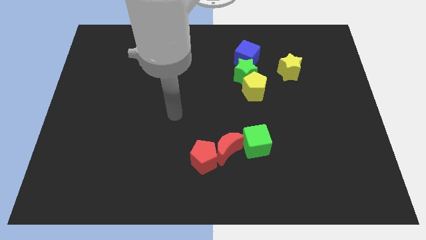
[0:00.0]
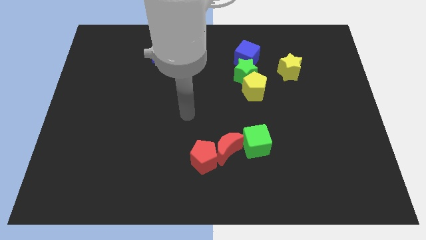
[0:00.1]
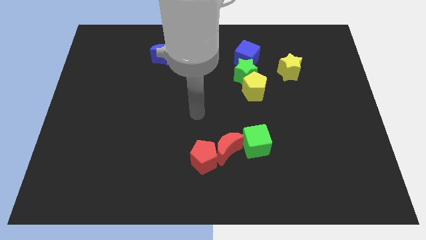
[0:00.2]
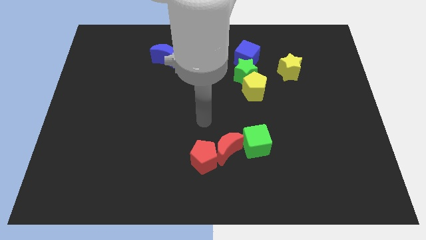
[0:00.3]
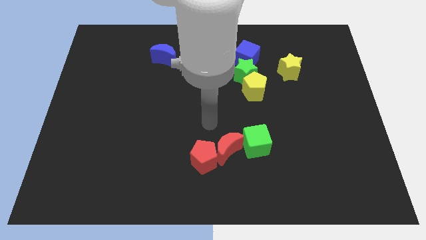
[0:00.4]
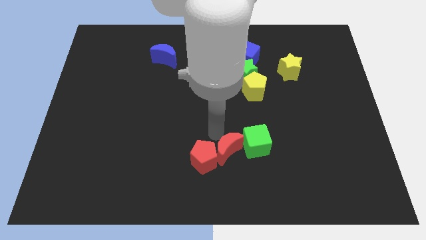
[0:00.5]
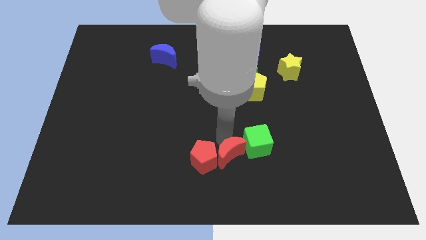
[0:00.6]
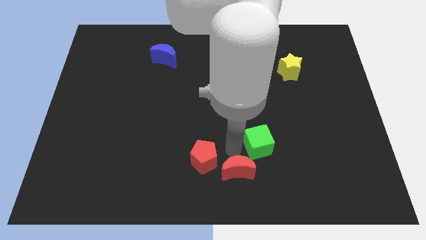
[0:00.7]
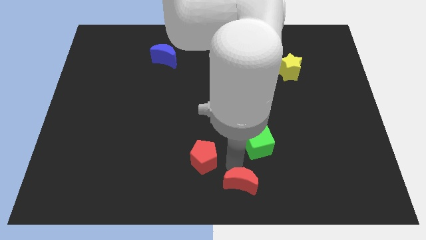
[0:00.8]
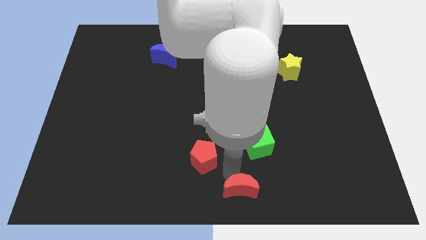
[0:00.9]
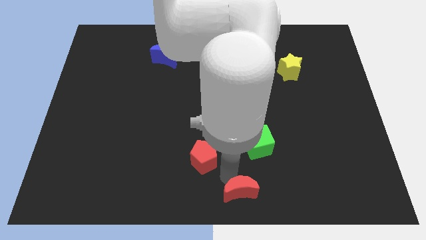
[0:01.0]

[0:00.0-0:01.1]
move the red pentagon away from the red moon

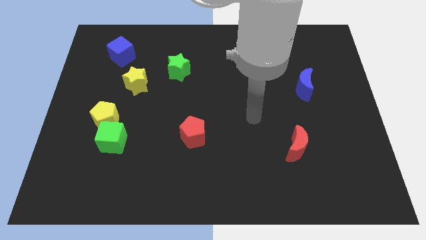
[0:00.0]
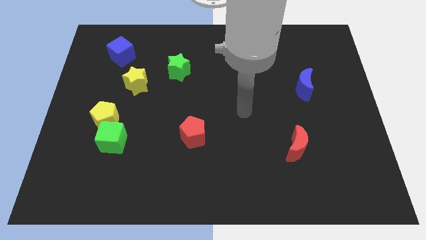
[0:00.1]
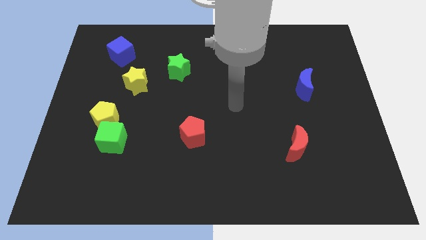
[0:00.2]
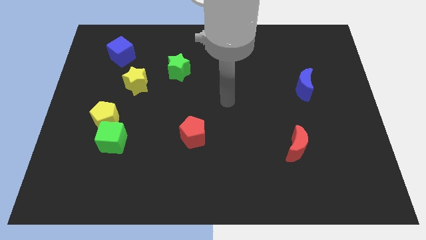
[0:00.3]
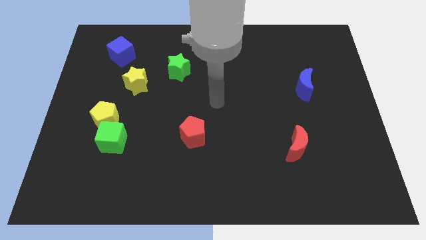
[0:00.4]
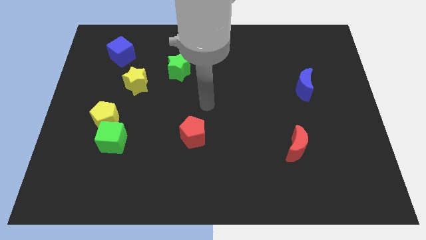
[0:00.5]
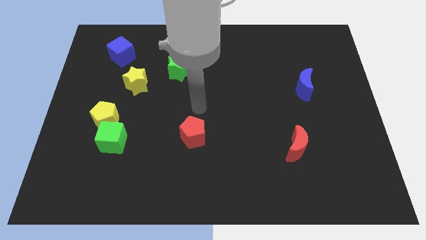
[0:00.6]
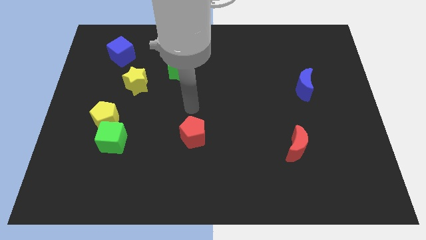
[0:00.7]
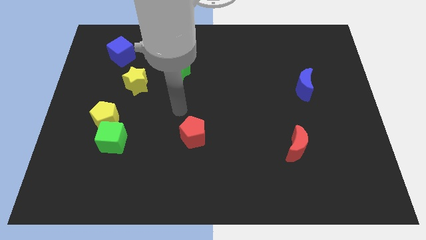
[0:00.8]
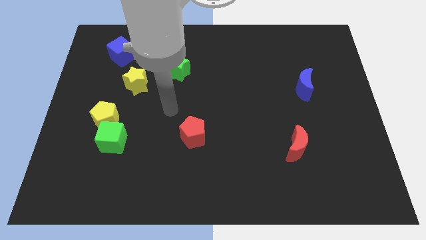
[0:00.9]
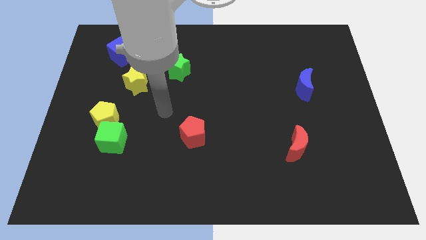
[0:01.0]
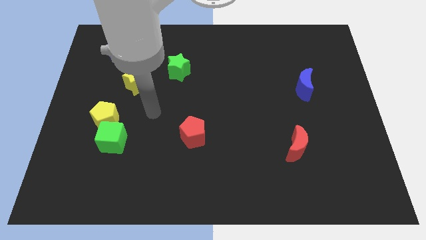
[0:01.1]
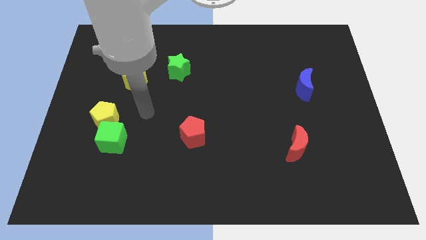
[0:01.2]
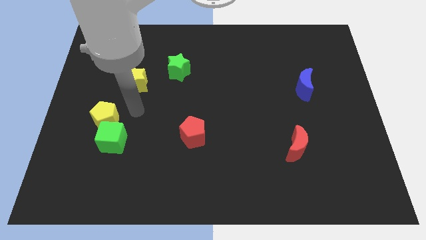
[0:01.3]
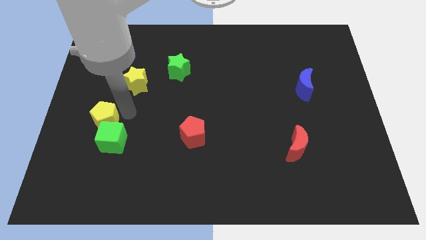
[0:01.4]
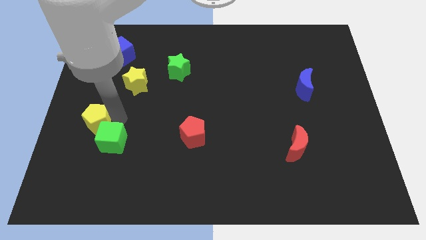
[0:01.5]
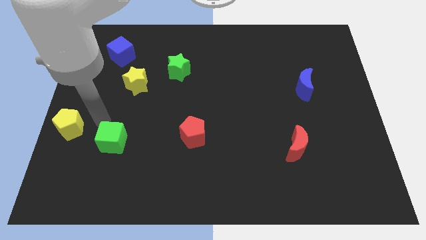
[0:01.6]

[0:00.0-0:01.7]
separate the green cube from the yellow pentagon

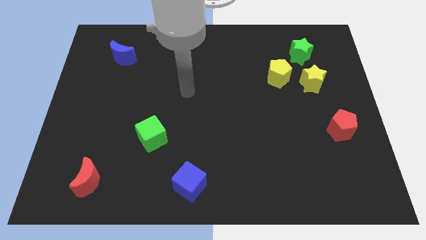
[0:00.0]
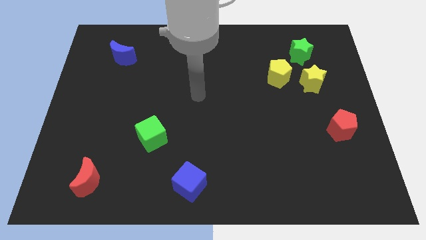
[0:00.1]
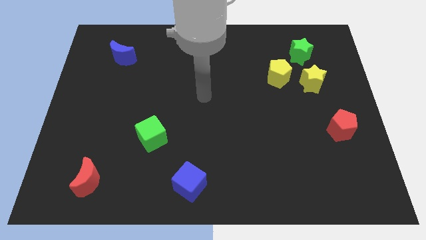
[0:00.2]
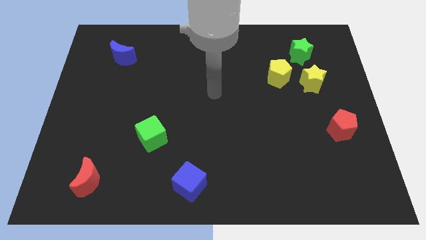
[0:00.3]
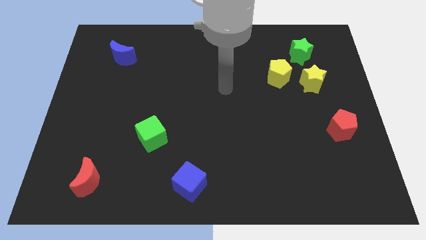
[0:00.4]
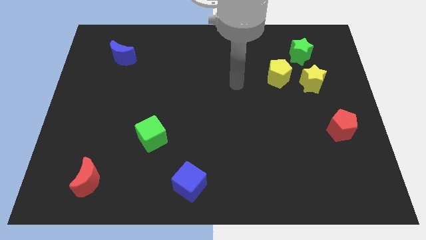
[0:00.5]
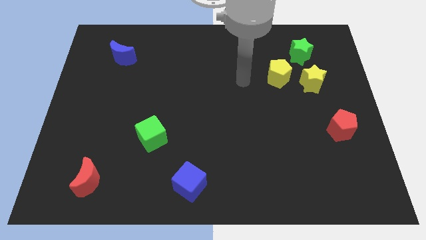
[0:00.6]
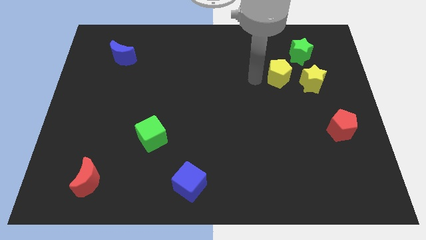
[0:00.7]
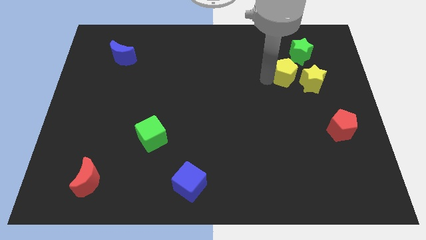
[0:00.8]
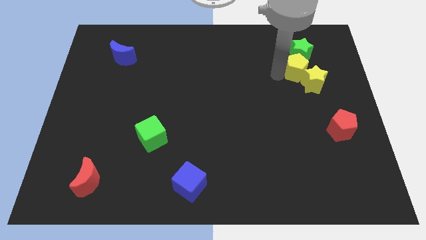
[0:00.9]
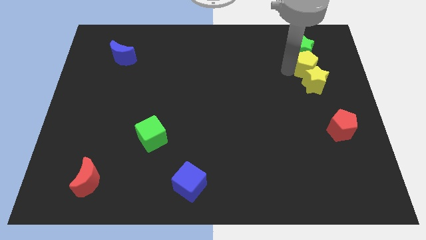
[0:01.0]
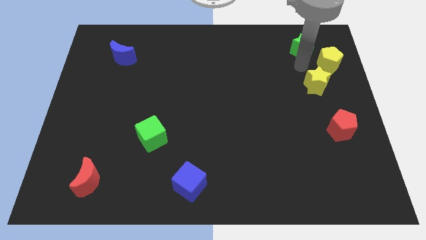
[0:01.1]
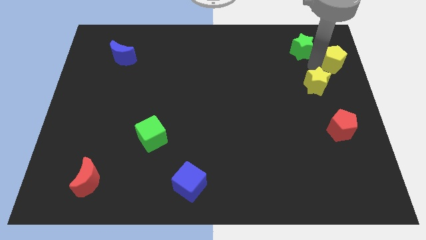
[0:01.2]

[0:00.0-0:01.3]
move the yellow star away from the yellow pentagon and green star

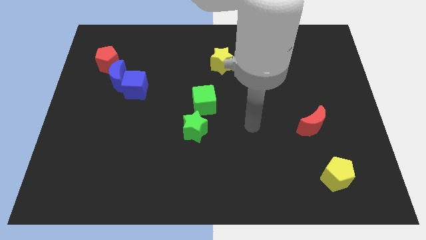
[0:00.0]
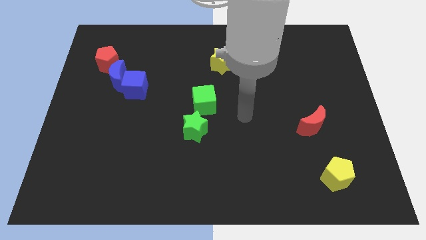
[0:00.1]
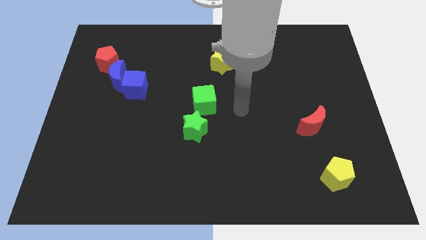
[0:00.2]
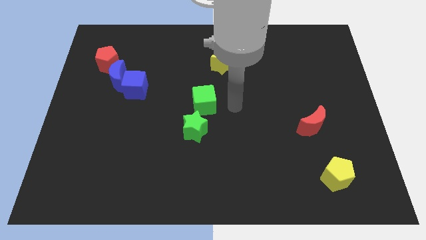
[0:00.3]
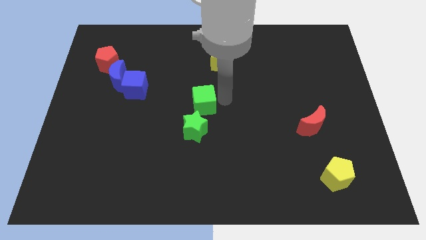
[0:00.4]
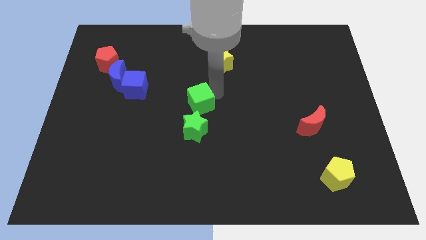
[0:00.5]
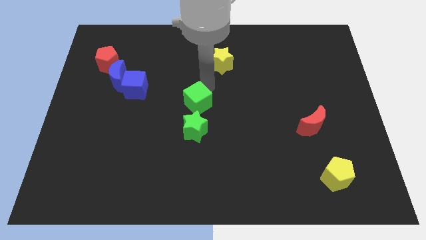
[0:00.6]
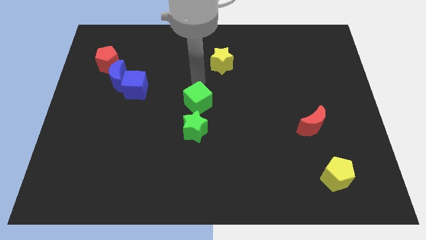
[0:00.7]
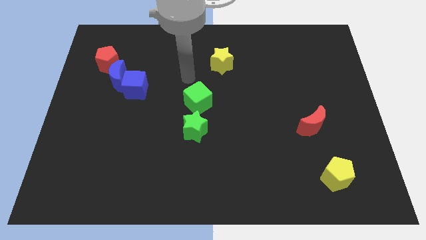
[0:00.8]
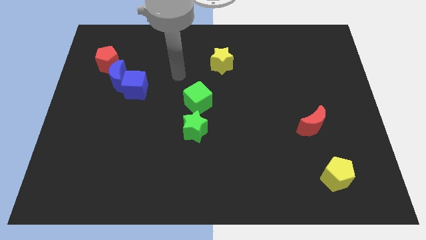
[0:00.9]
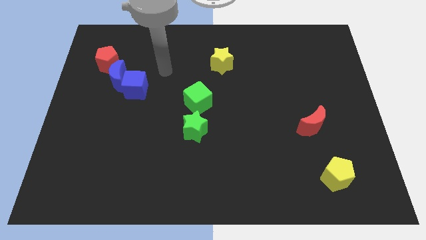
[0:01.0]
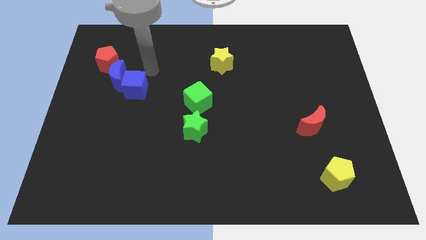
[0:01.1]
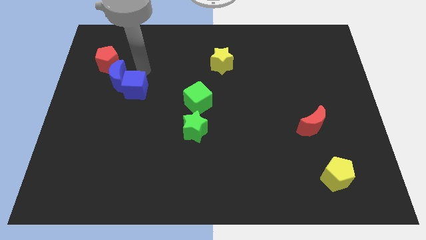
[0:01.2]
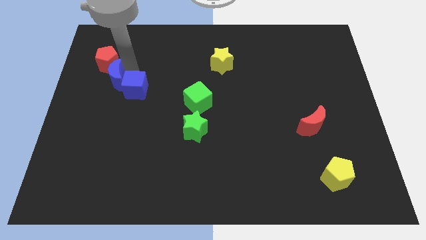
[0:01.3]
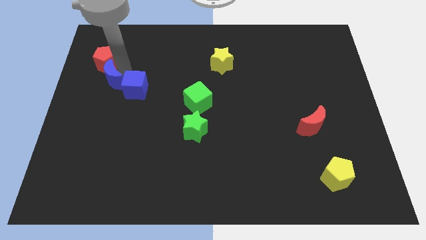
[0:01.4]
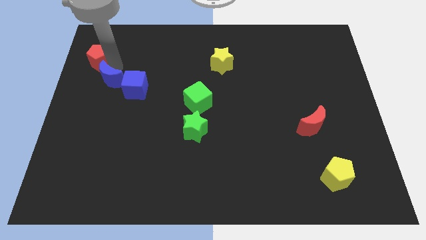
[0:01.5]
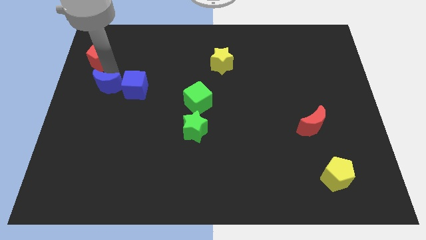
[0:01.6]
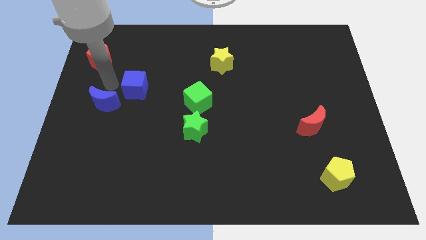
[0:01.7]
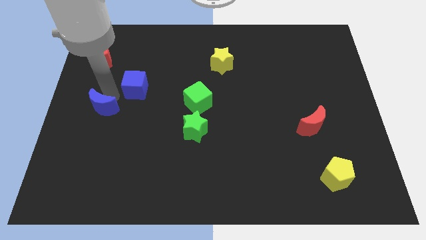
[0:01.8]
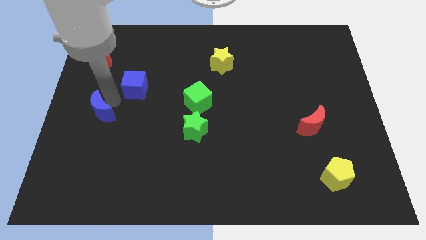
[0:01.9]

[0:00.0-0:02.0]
move the blue cube away from the blue moon

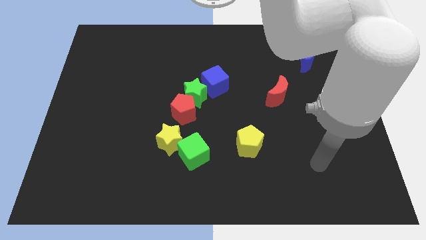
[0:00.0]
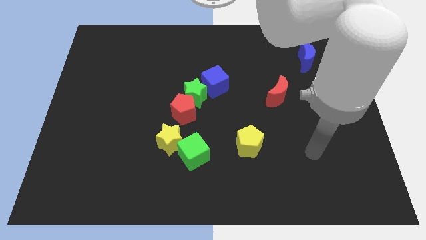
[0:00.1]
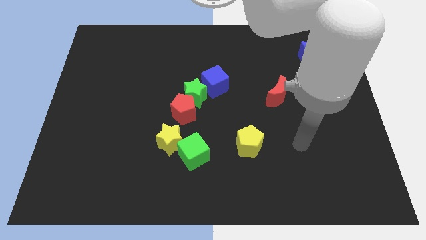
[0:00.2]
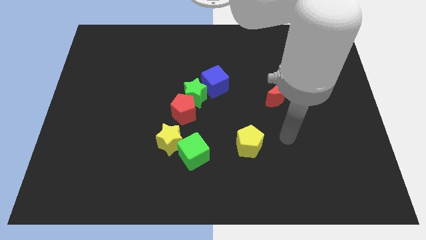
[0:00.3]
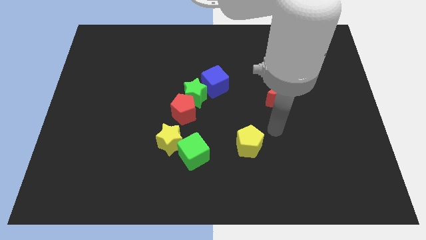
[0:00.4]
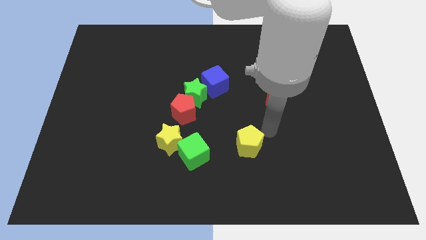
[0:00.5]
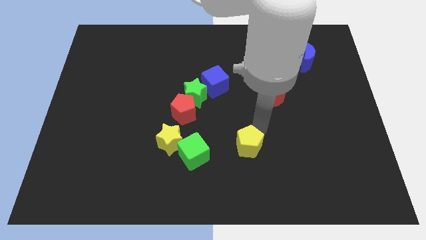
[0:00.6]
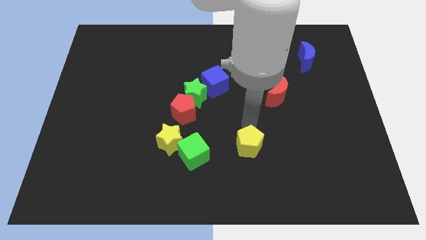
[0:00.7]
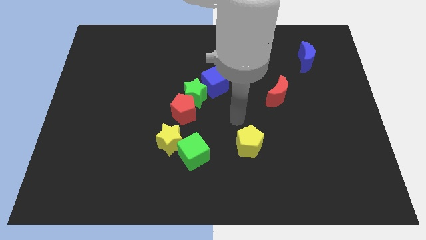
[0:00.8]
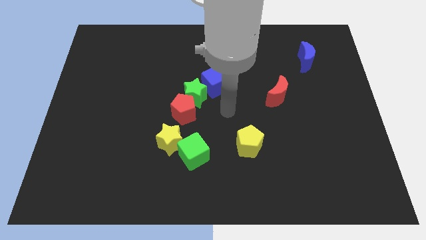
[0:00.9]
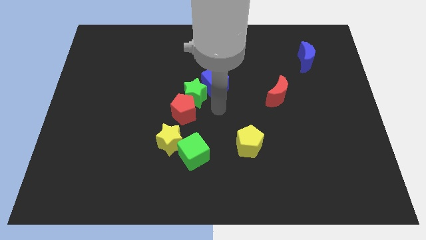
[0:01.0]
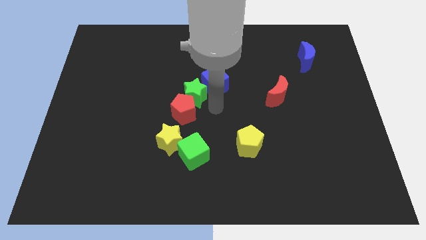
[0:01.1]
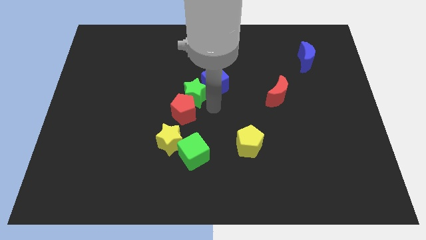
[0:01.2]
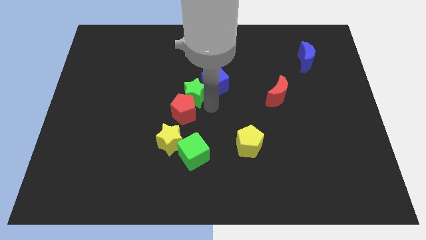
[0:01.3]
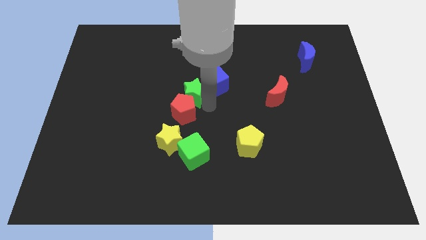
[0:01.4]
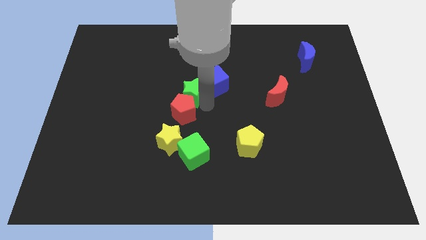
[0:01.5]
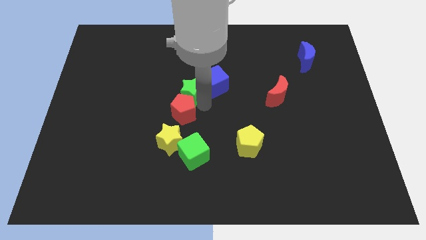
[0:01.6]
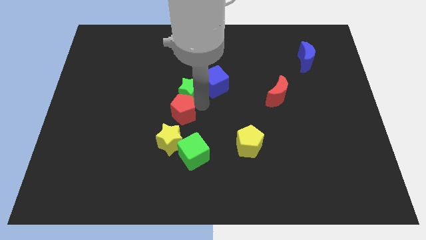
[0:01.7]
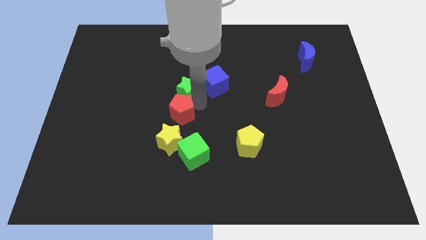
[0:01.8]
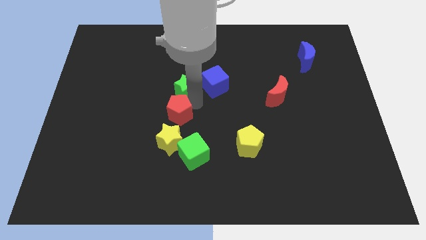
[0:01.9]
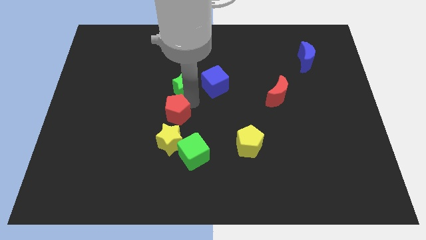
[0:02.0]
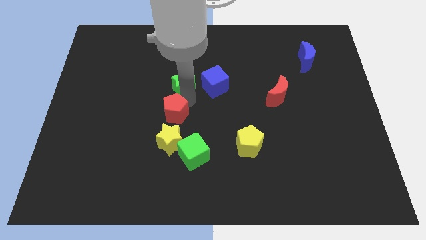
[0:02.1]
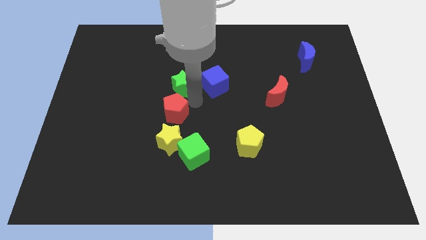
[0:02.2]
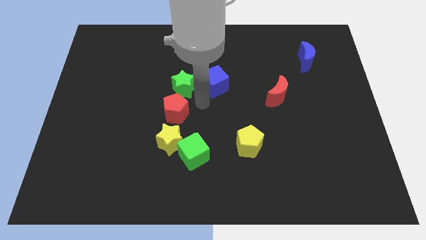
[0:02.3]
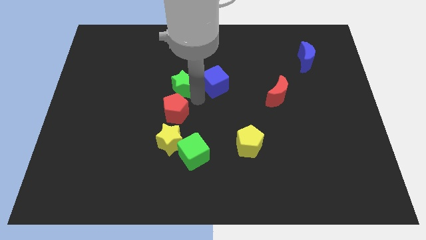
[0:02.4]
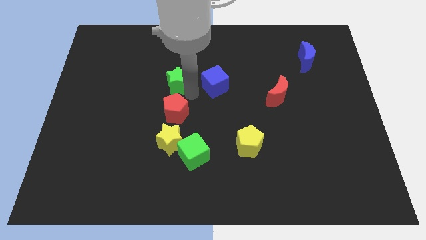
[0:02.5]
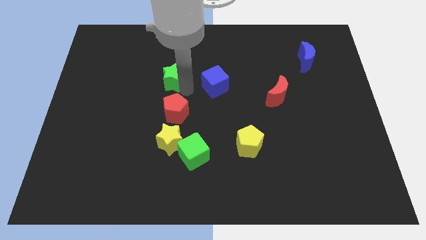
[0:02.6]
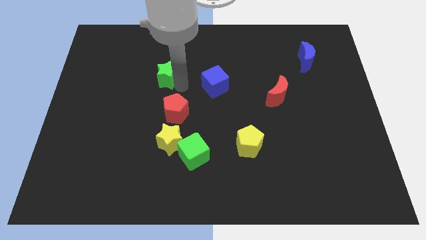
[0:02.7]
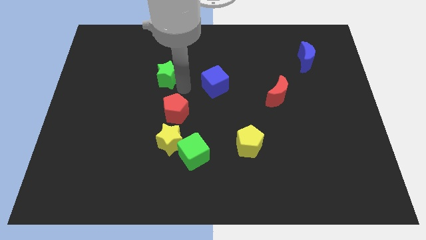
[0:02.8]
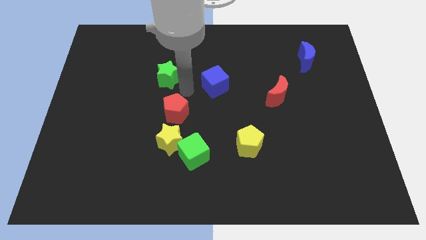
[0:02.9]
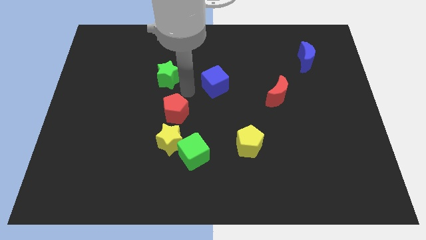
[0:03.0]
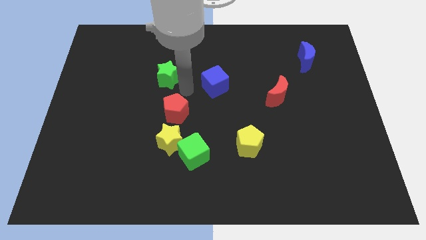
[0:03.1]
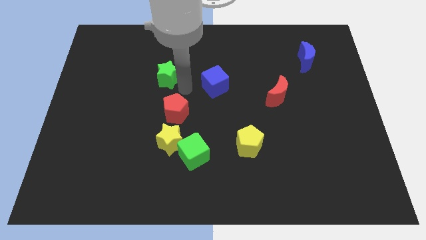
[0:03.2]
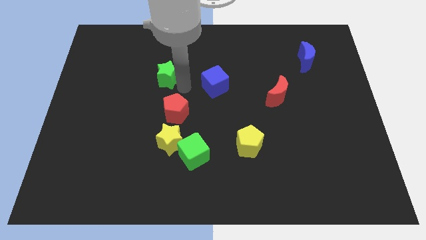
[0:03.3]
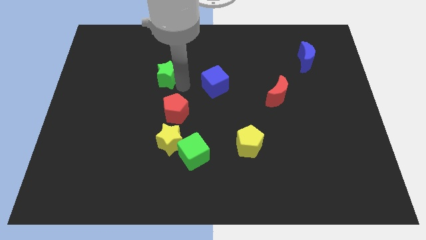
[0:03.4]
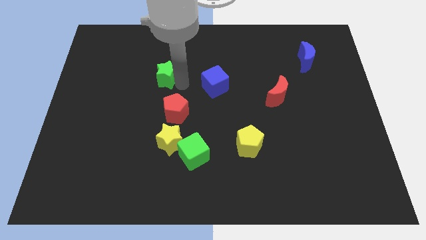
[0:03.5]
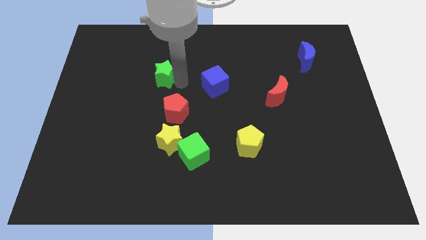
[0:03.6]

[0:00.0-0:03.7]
pull the green star apart from the red pentagon and blue cube
